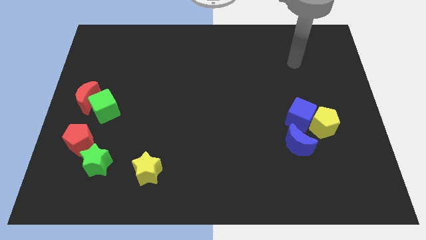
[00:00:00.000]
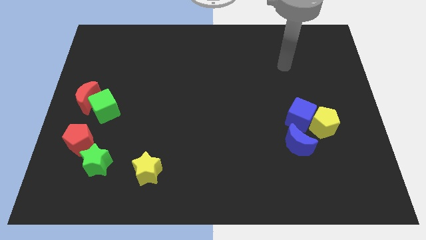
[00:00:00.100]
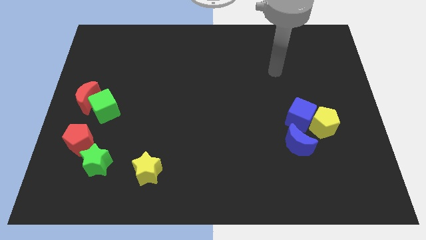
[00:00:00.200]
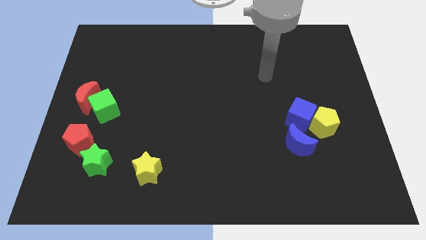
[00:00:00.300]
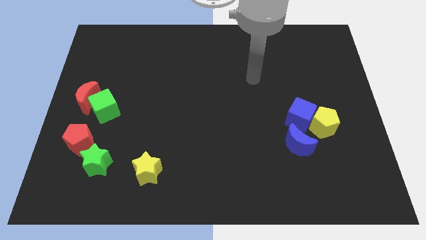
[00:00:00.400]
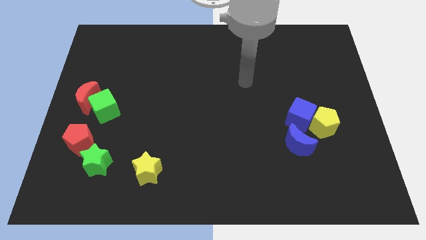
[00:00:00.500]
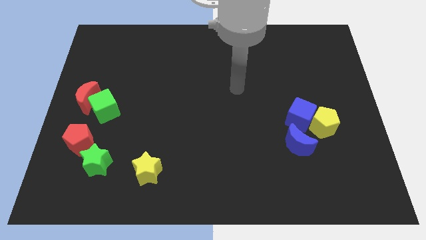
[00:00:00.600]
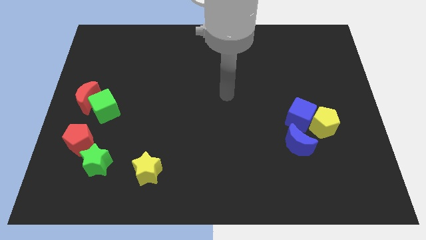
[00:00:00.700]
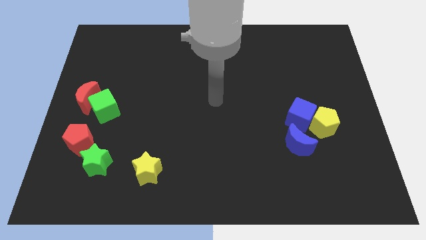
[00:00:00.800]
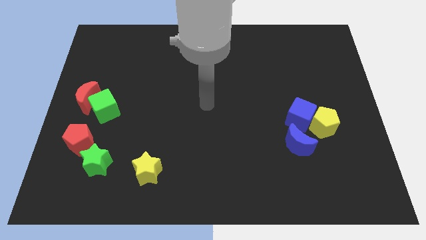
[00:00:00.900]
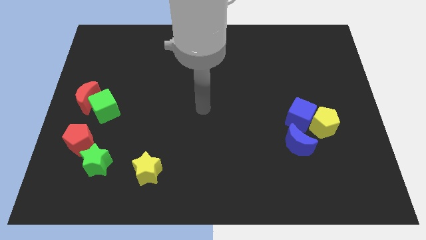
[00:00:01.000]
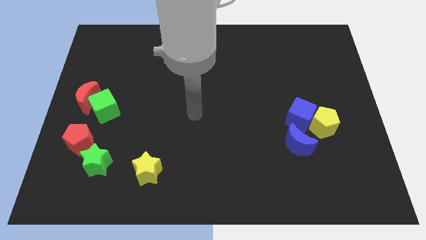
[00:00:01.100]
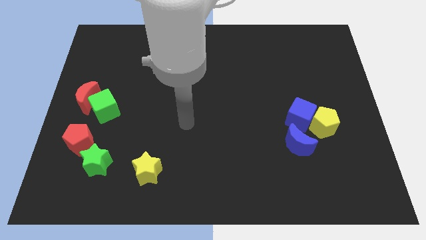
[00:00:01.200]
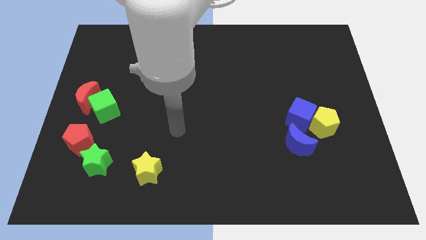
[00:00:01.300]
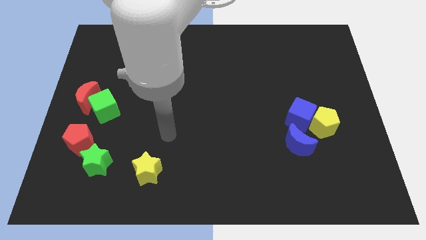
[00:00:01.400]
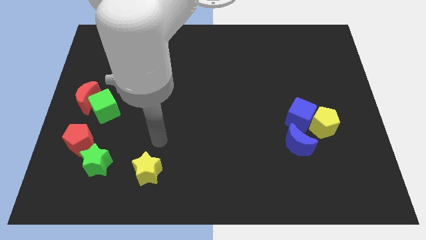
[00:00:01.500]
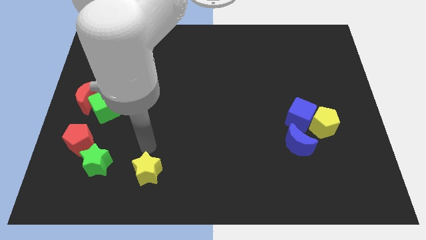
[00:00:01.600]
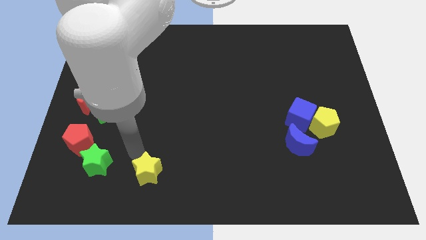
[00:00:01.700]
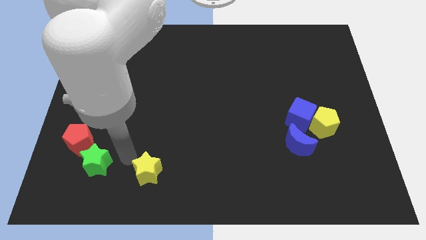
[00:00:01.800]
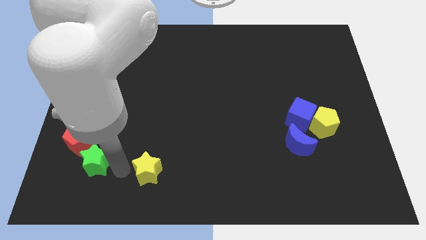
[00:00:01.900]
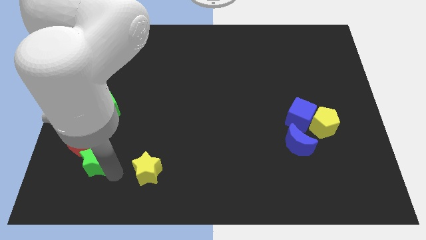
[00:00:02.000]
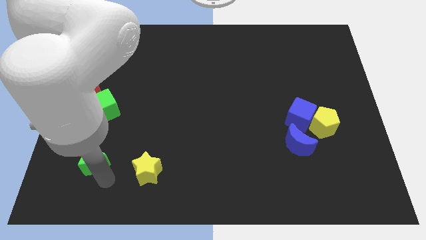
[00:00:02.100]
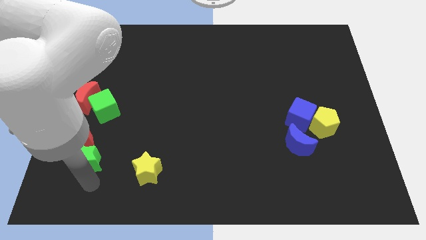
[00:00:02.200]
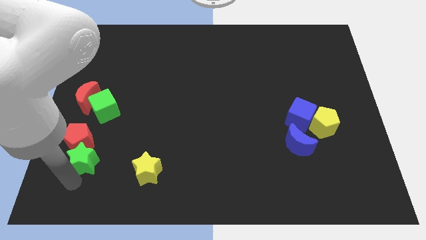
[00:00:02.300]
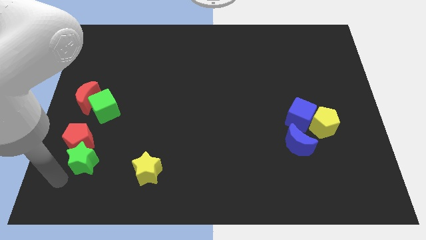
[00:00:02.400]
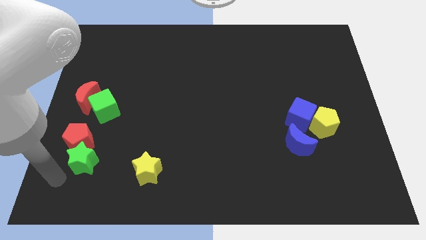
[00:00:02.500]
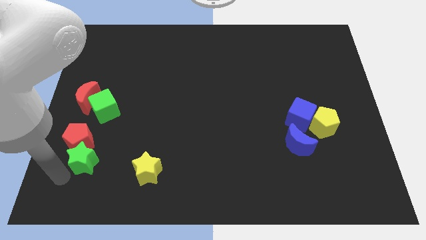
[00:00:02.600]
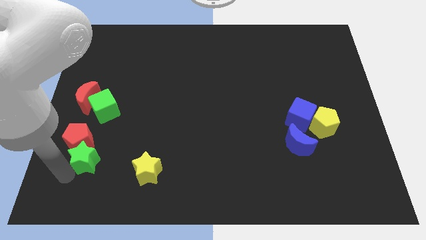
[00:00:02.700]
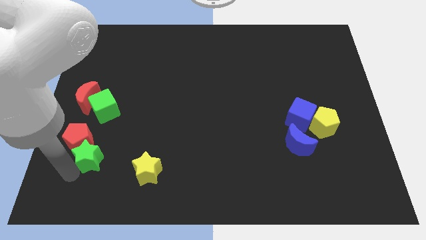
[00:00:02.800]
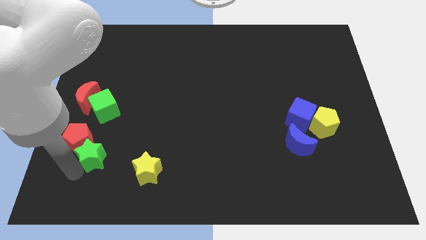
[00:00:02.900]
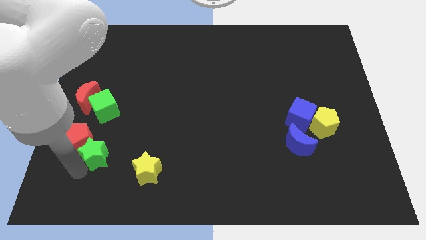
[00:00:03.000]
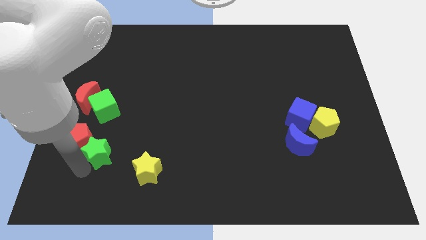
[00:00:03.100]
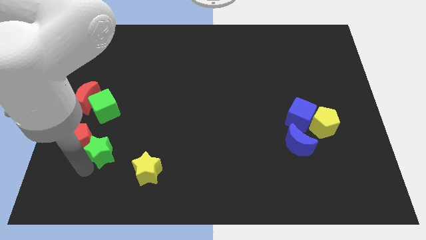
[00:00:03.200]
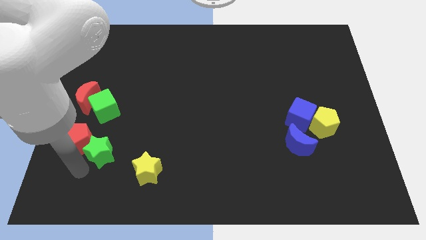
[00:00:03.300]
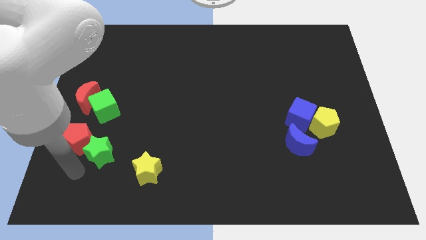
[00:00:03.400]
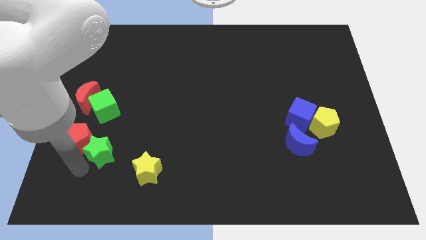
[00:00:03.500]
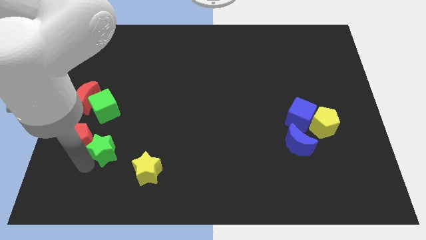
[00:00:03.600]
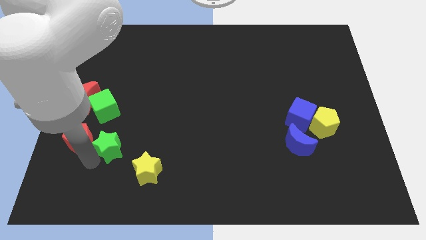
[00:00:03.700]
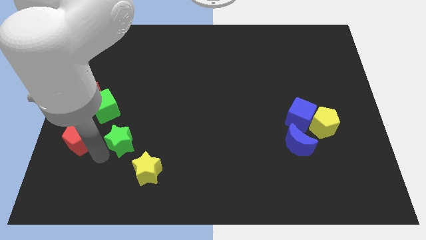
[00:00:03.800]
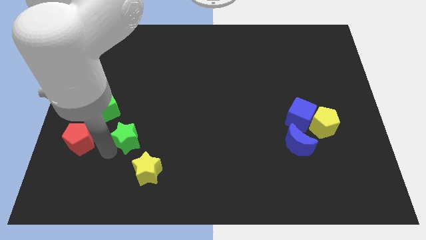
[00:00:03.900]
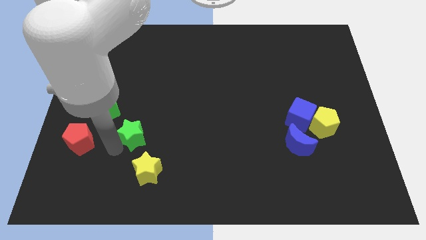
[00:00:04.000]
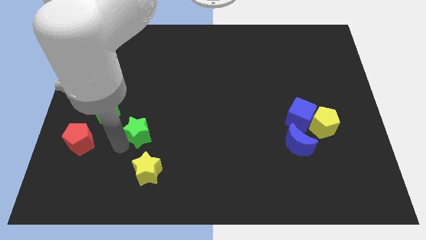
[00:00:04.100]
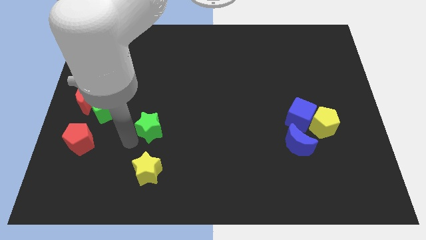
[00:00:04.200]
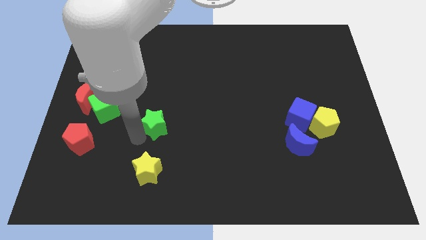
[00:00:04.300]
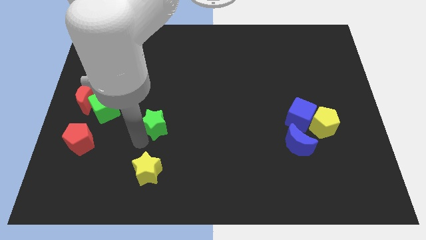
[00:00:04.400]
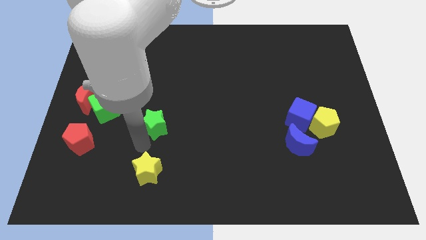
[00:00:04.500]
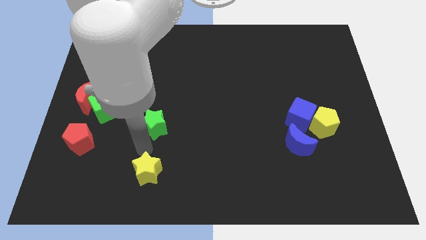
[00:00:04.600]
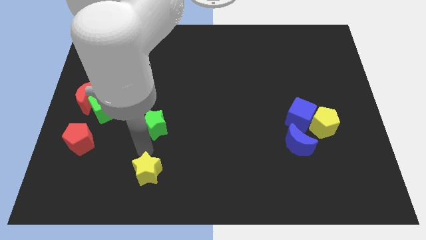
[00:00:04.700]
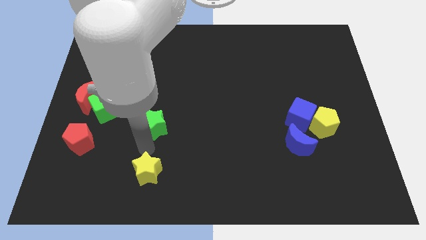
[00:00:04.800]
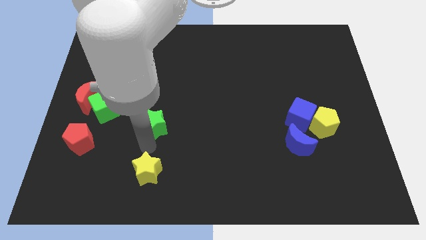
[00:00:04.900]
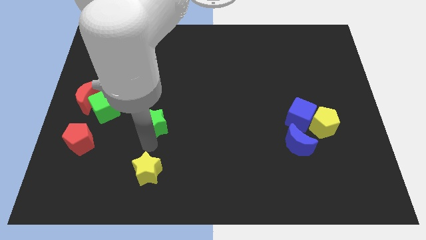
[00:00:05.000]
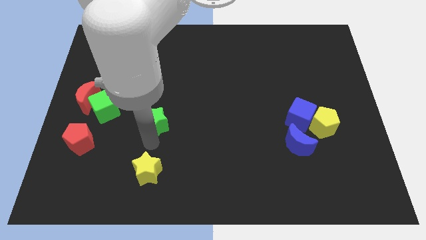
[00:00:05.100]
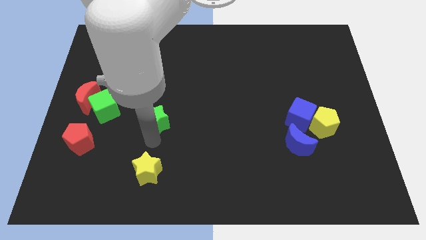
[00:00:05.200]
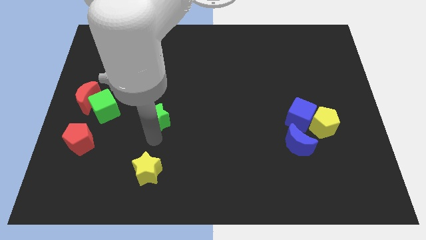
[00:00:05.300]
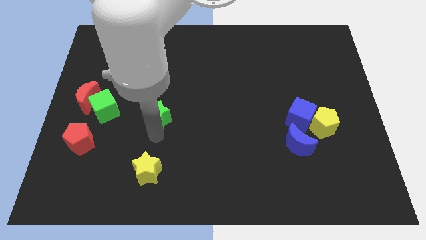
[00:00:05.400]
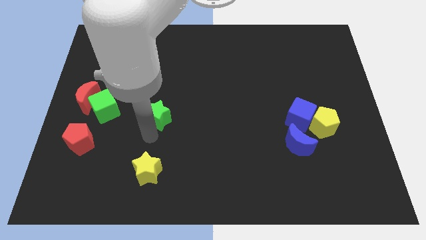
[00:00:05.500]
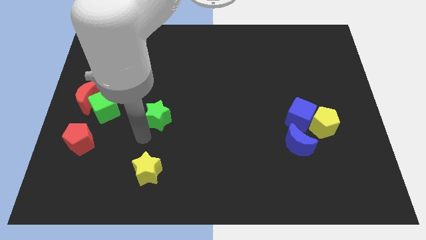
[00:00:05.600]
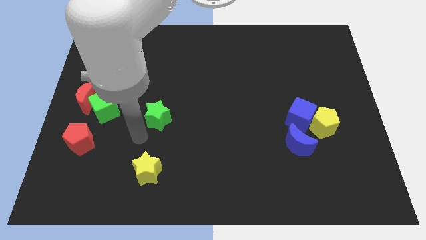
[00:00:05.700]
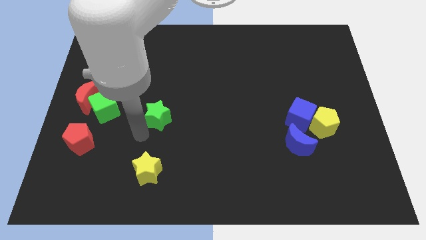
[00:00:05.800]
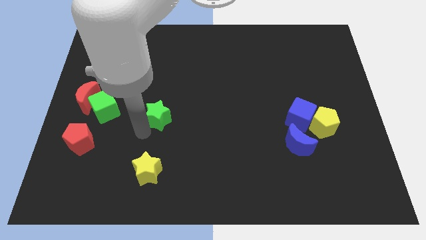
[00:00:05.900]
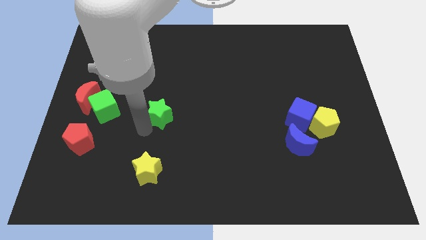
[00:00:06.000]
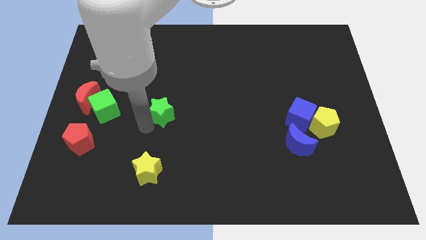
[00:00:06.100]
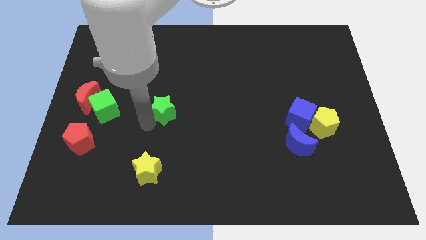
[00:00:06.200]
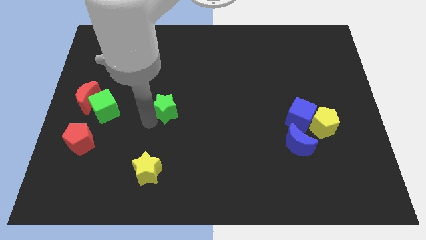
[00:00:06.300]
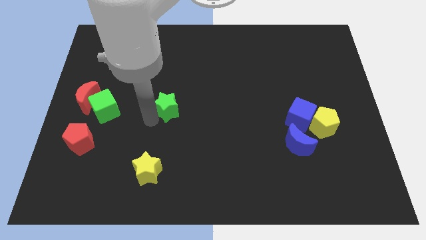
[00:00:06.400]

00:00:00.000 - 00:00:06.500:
push the green star upwards and to the right diagonally

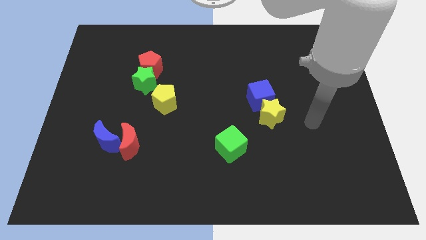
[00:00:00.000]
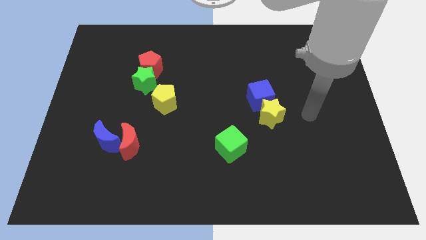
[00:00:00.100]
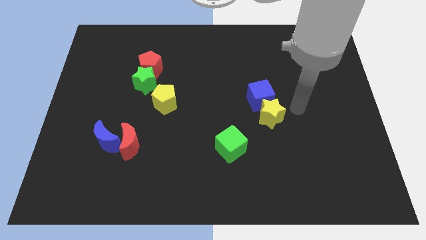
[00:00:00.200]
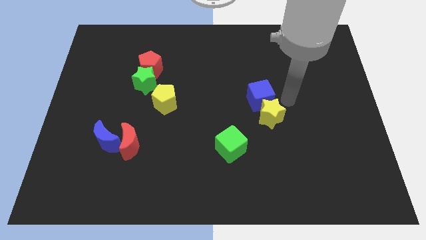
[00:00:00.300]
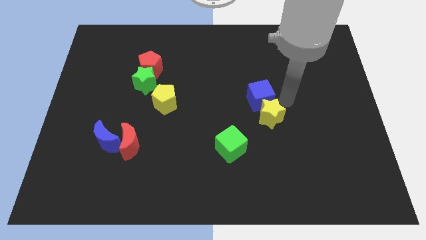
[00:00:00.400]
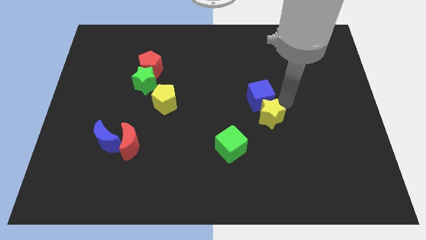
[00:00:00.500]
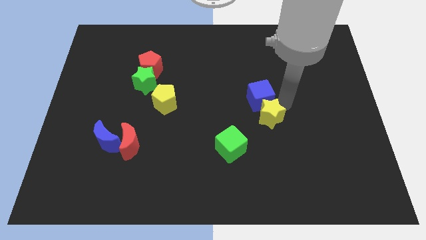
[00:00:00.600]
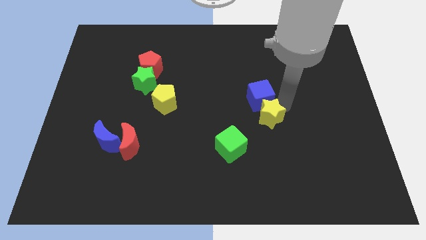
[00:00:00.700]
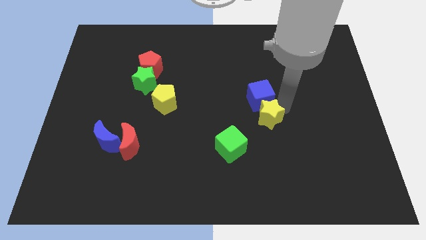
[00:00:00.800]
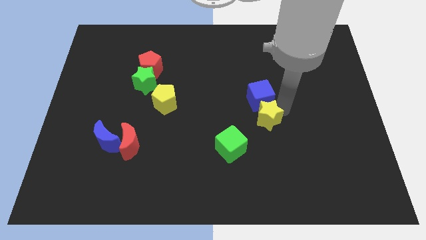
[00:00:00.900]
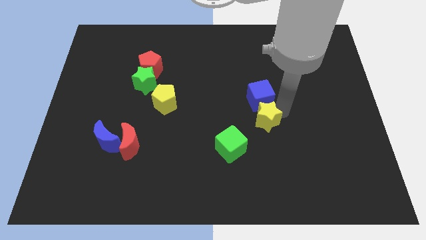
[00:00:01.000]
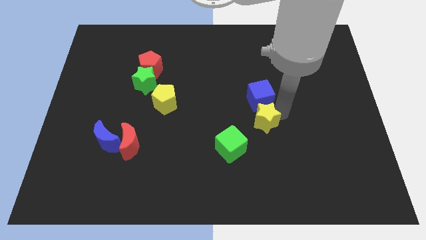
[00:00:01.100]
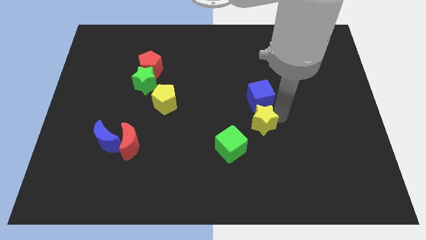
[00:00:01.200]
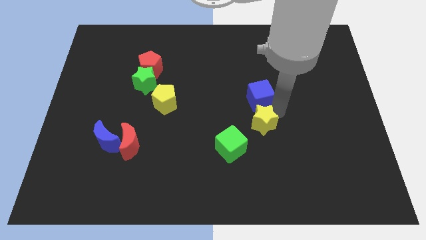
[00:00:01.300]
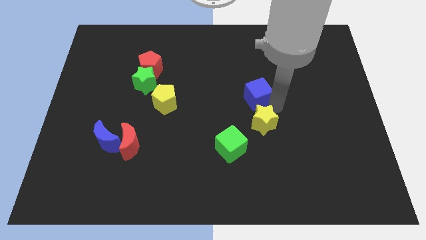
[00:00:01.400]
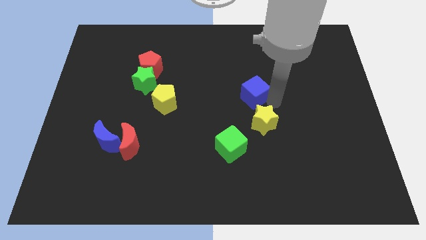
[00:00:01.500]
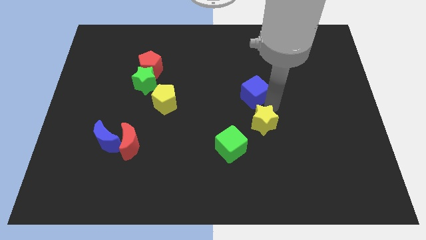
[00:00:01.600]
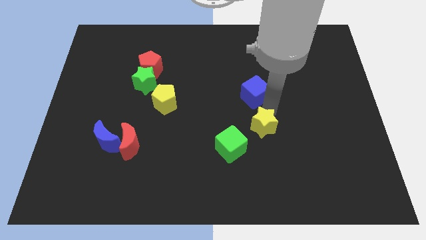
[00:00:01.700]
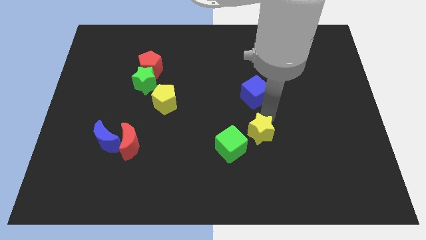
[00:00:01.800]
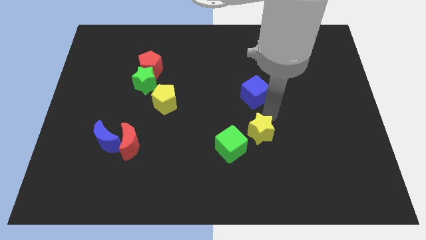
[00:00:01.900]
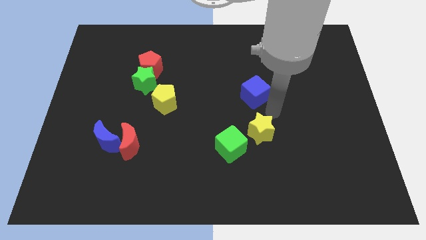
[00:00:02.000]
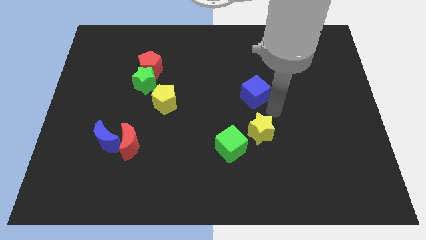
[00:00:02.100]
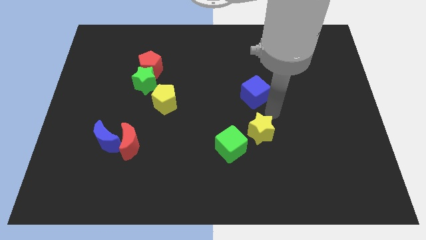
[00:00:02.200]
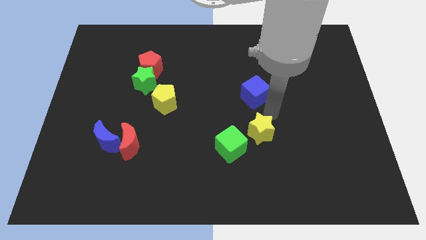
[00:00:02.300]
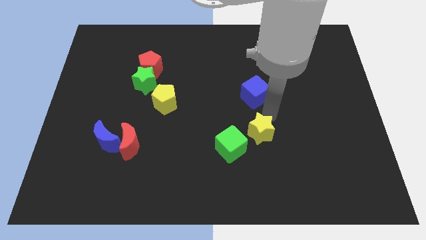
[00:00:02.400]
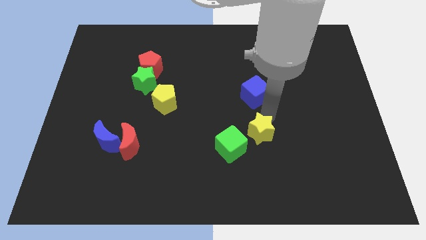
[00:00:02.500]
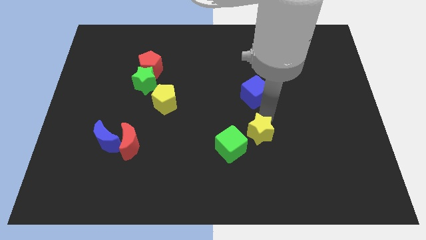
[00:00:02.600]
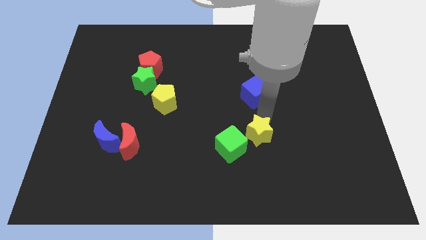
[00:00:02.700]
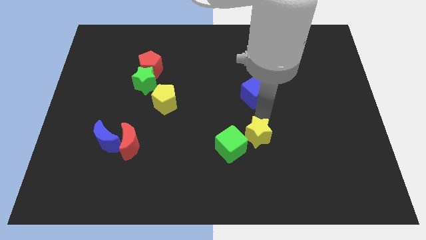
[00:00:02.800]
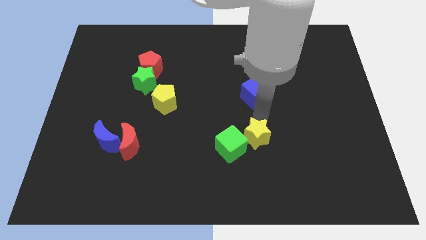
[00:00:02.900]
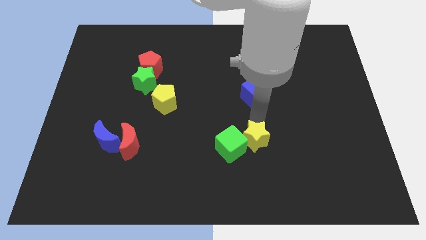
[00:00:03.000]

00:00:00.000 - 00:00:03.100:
slightly push the yellow star downwards and to the left
